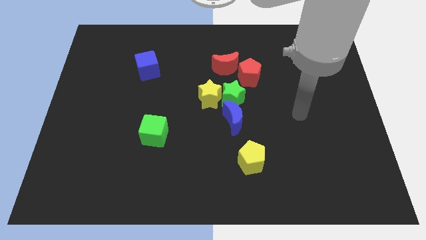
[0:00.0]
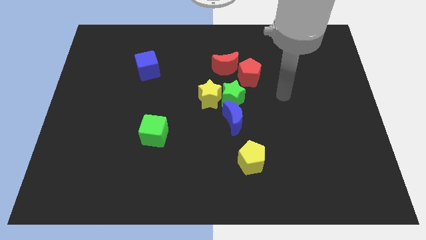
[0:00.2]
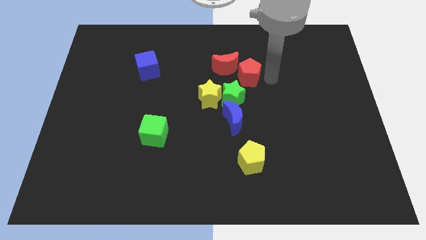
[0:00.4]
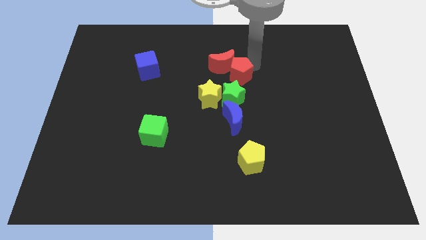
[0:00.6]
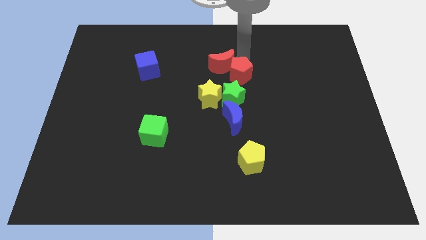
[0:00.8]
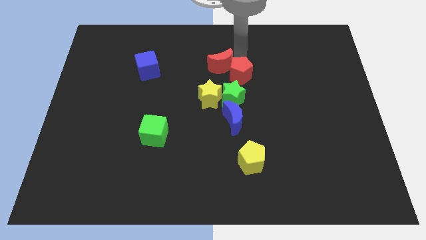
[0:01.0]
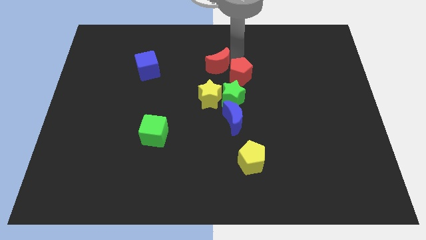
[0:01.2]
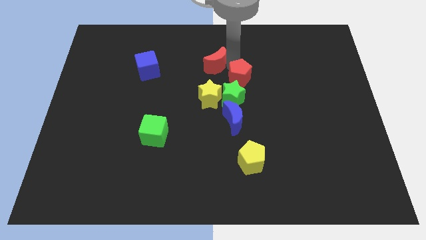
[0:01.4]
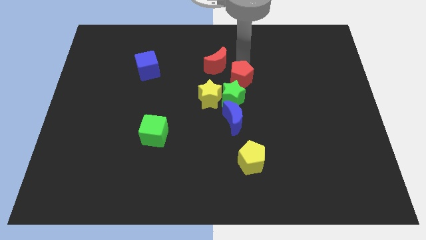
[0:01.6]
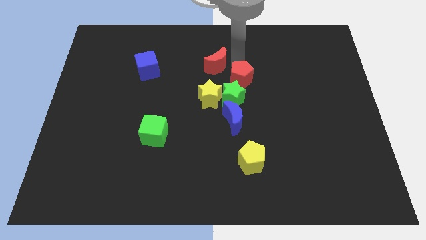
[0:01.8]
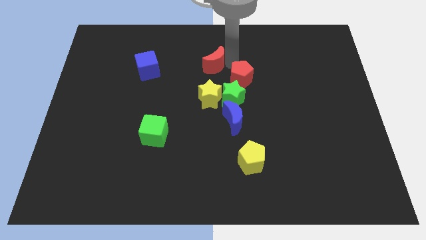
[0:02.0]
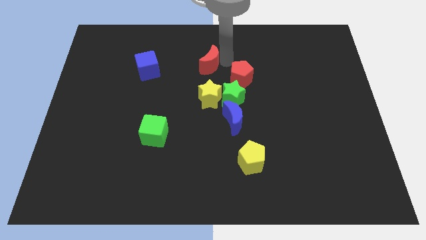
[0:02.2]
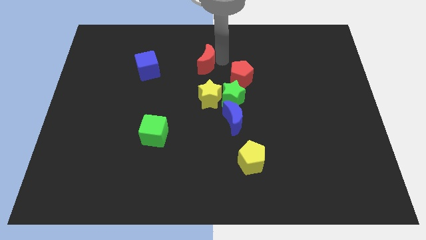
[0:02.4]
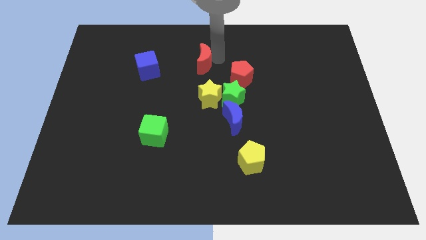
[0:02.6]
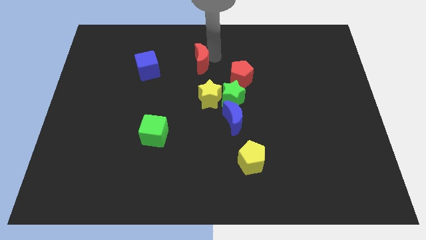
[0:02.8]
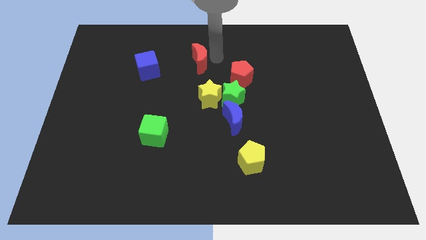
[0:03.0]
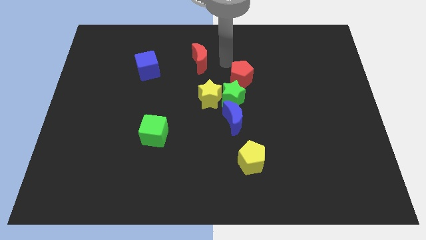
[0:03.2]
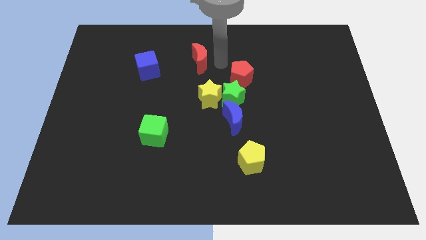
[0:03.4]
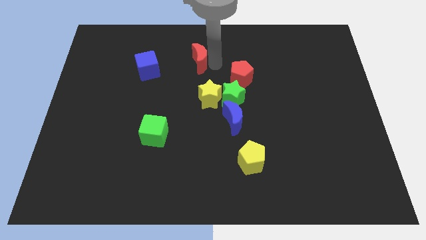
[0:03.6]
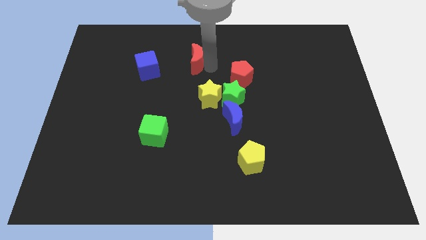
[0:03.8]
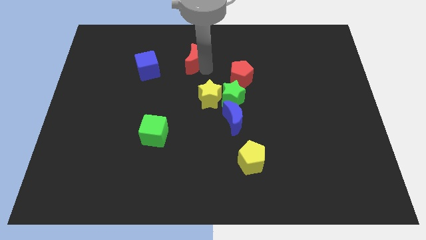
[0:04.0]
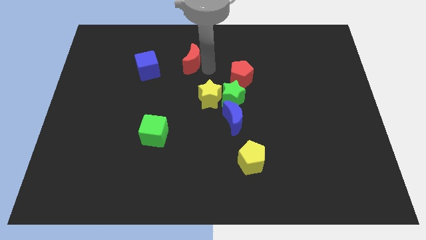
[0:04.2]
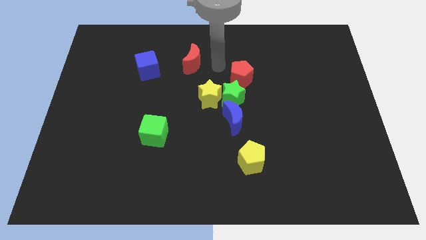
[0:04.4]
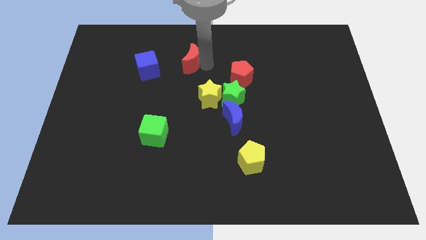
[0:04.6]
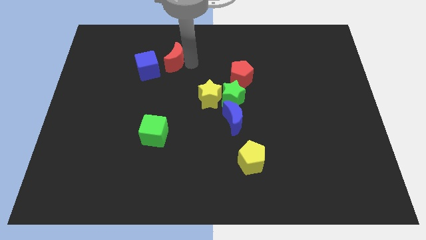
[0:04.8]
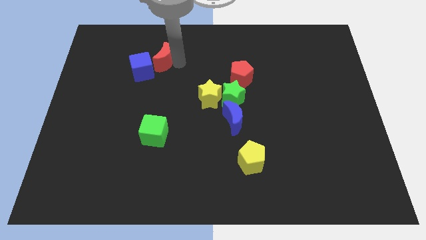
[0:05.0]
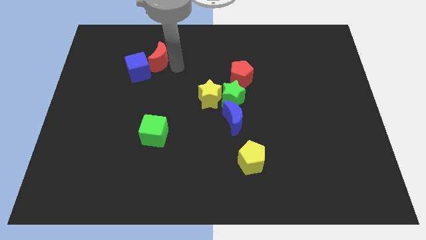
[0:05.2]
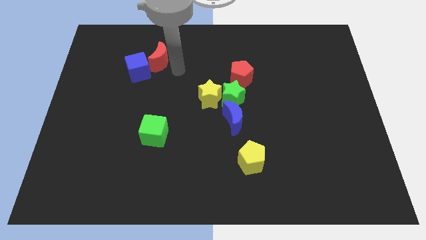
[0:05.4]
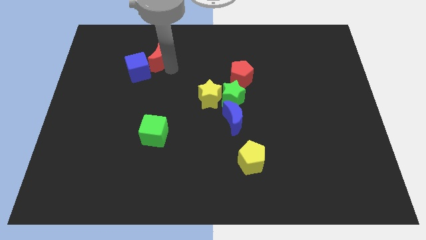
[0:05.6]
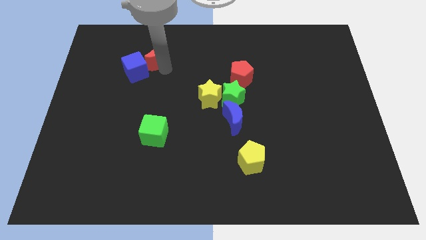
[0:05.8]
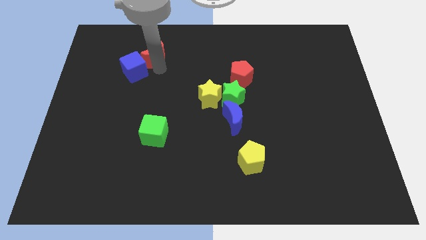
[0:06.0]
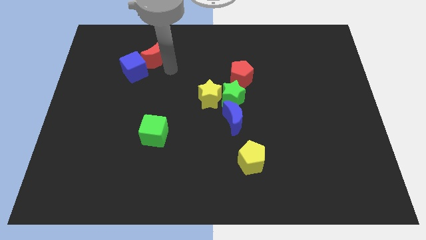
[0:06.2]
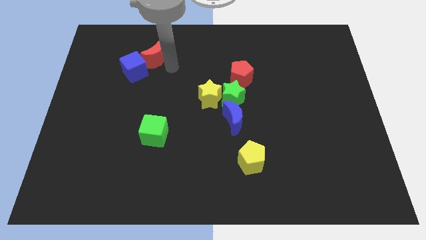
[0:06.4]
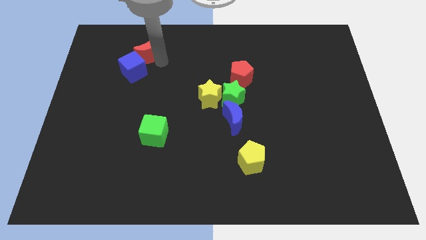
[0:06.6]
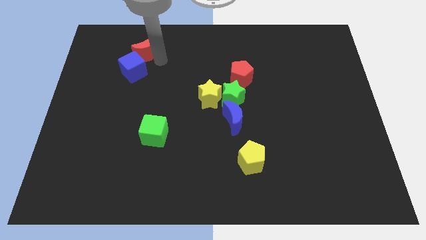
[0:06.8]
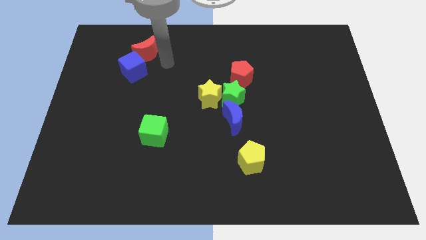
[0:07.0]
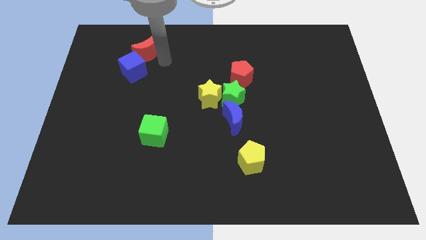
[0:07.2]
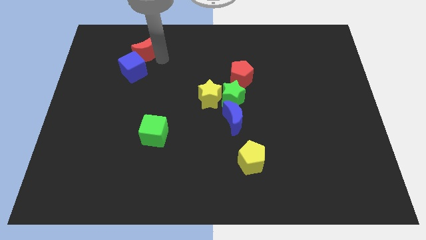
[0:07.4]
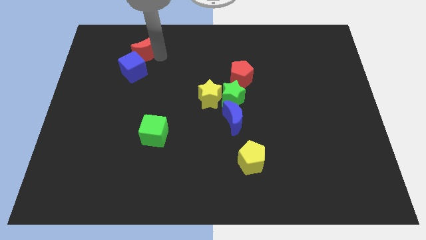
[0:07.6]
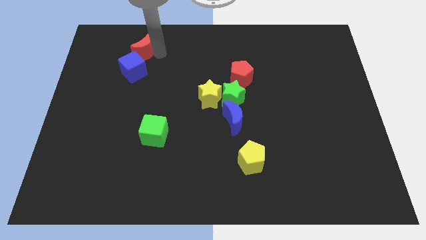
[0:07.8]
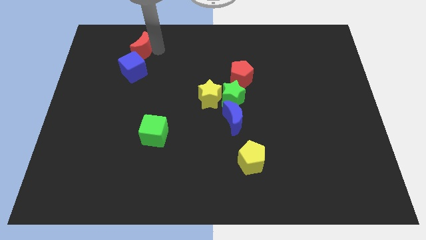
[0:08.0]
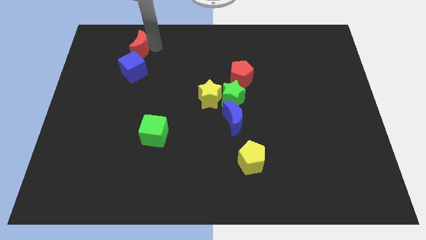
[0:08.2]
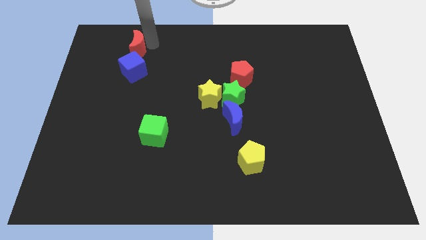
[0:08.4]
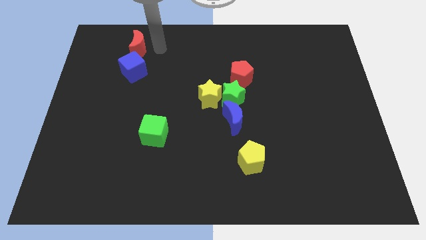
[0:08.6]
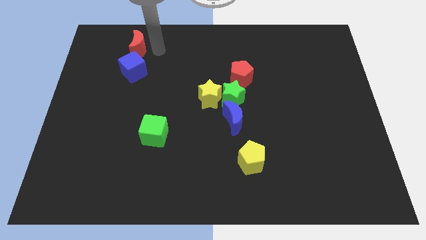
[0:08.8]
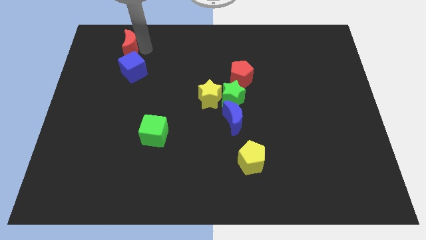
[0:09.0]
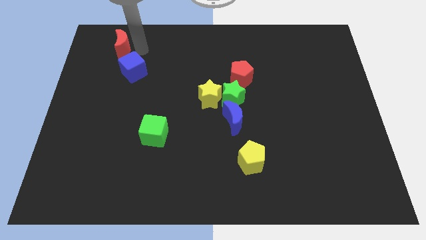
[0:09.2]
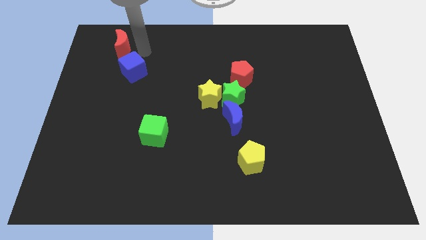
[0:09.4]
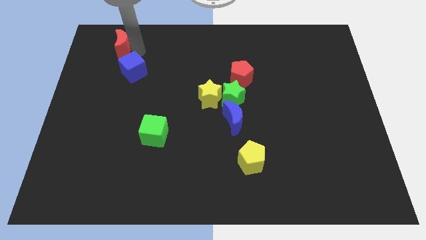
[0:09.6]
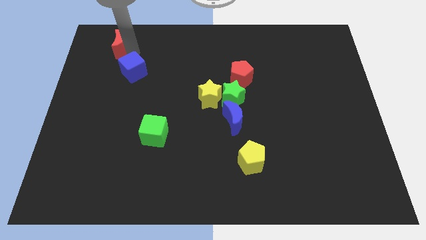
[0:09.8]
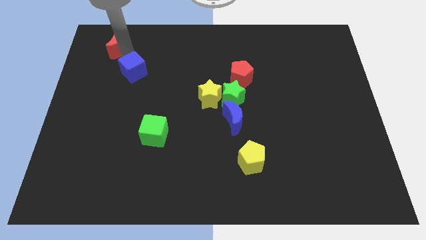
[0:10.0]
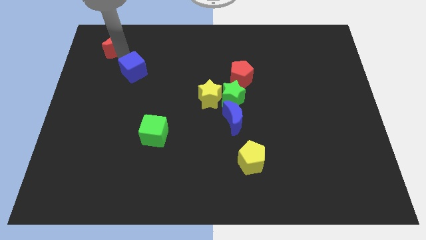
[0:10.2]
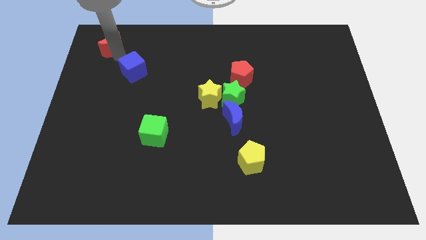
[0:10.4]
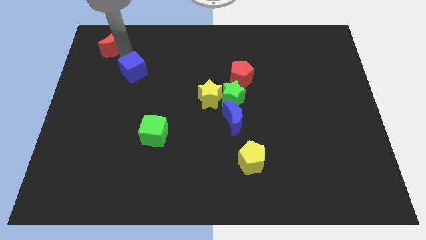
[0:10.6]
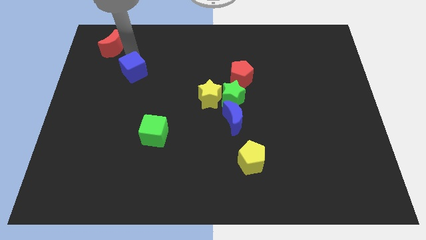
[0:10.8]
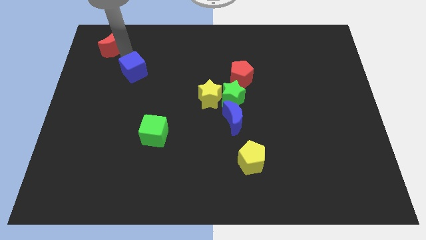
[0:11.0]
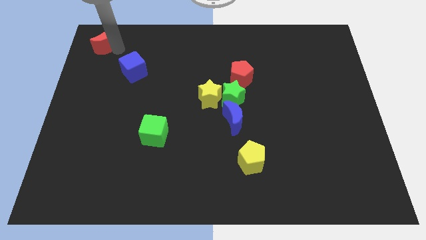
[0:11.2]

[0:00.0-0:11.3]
put the red moon to the top left
